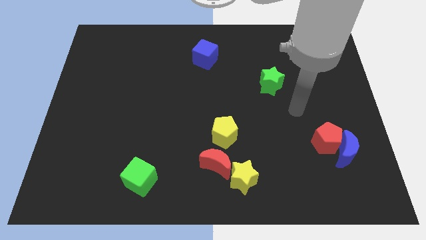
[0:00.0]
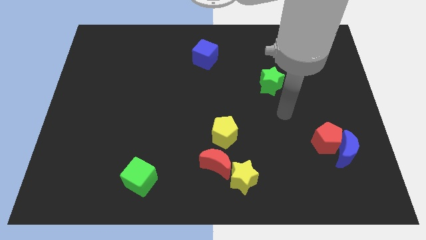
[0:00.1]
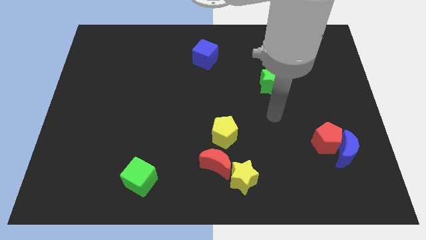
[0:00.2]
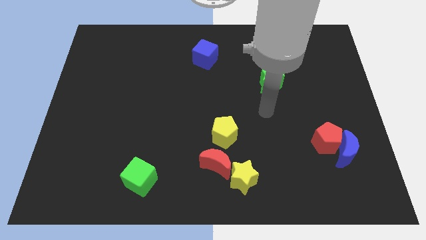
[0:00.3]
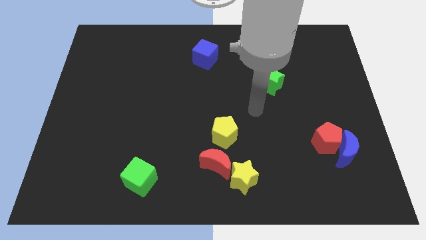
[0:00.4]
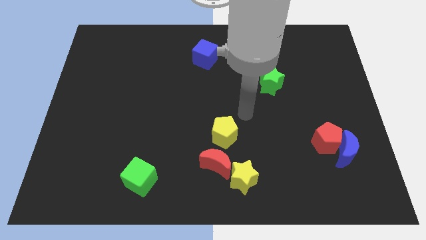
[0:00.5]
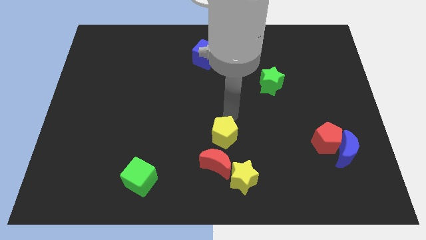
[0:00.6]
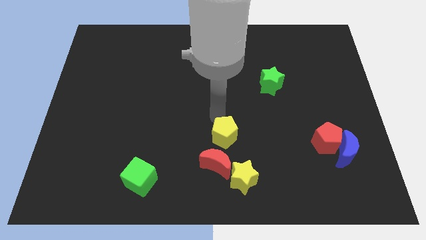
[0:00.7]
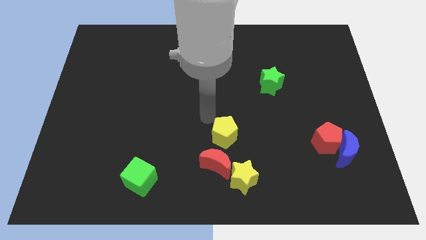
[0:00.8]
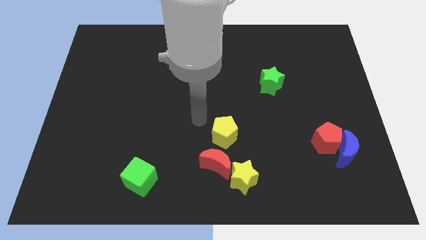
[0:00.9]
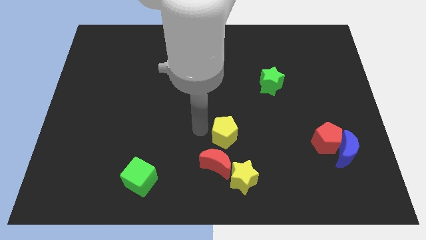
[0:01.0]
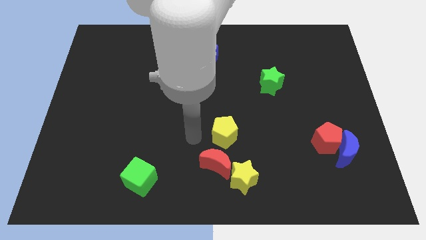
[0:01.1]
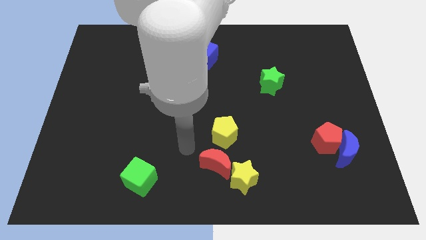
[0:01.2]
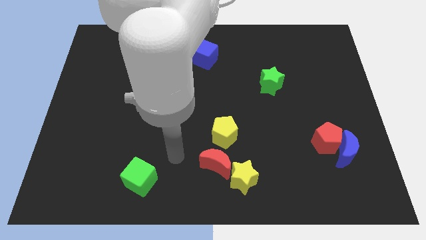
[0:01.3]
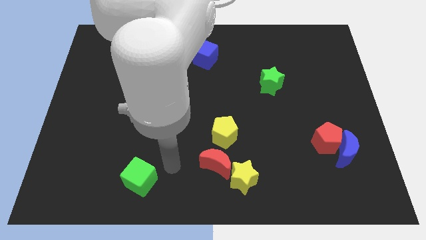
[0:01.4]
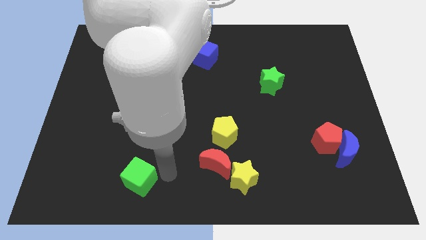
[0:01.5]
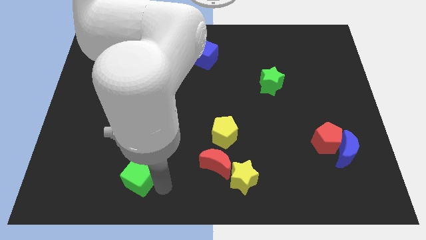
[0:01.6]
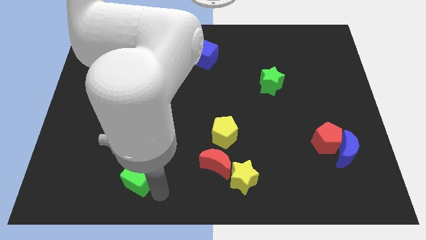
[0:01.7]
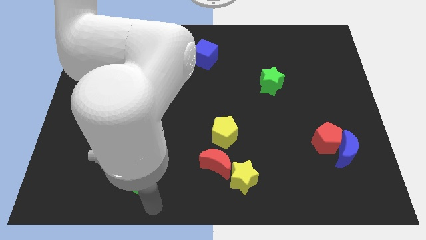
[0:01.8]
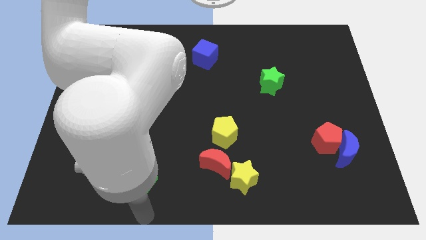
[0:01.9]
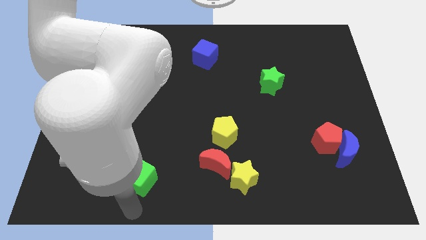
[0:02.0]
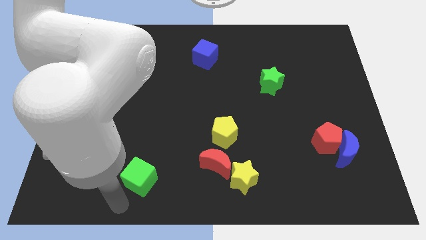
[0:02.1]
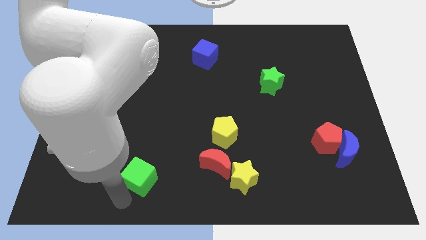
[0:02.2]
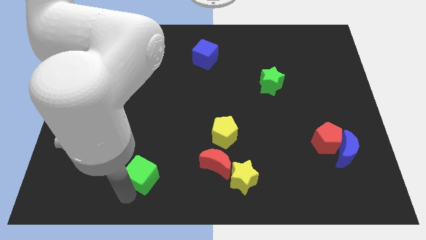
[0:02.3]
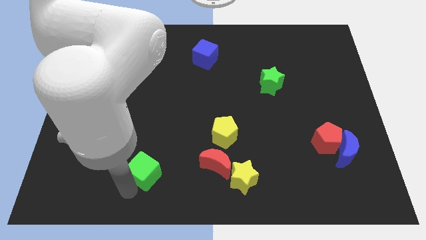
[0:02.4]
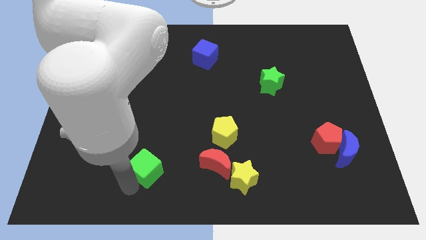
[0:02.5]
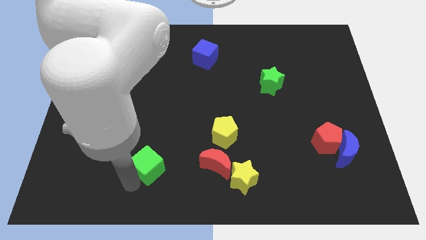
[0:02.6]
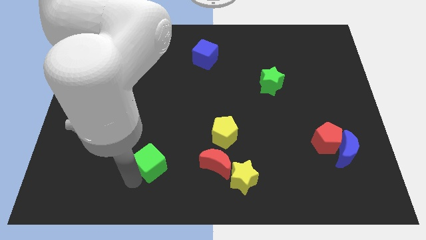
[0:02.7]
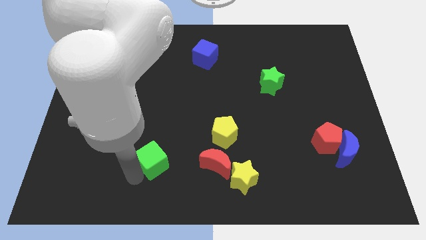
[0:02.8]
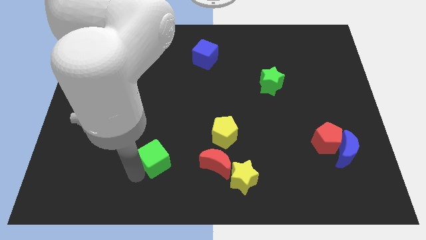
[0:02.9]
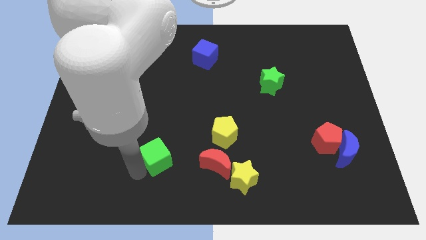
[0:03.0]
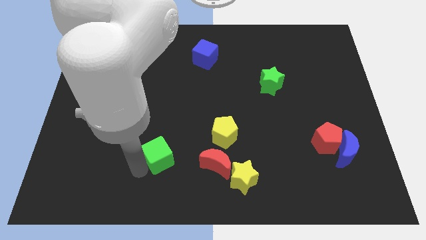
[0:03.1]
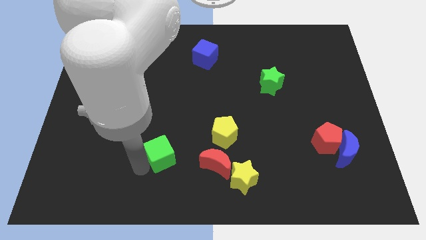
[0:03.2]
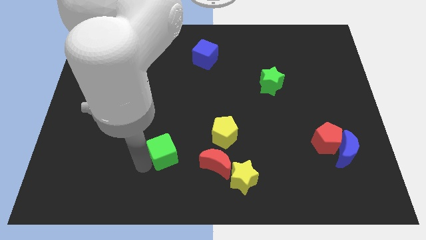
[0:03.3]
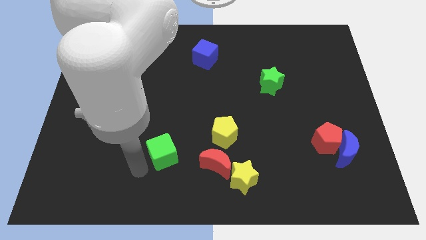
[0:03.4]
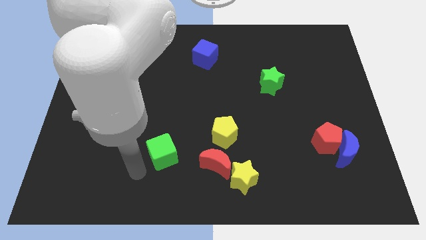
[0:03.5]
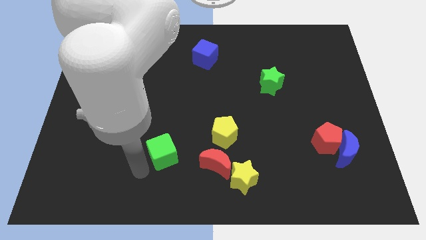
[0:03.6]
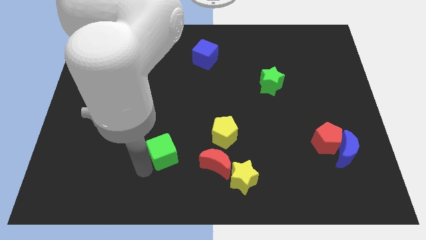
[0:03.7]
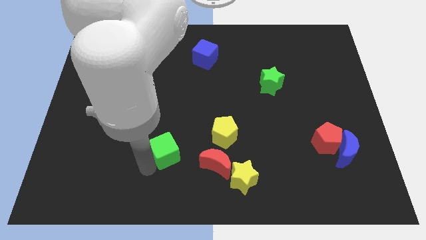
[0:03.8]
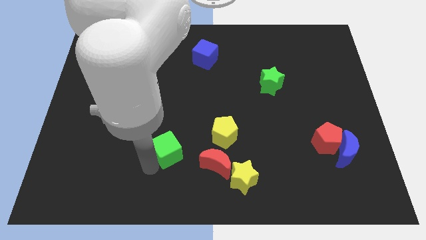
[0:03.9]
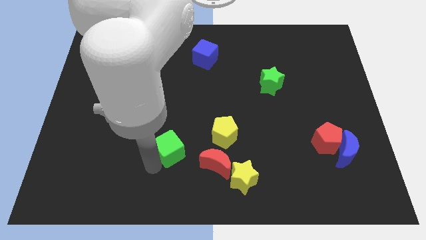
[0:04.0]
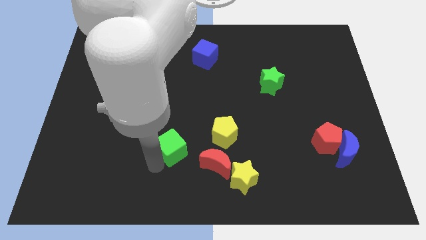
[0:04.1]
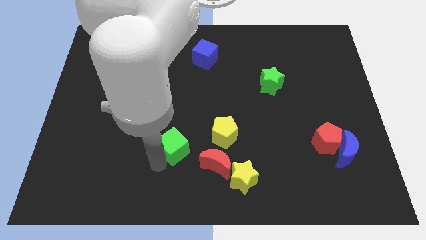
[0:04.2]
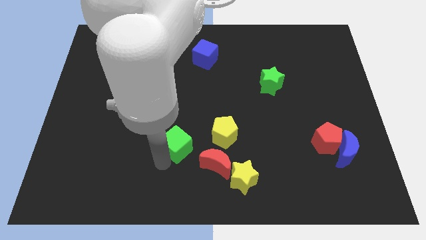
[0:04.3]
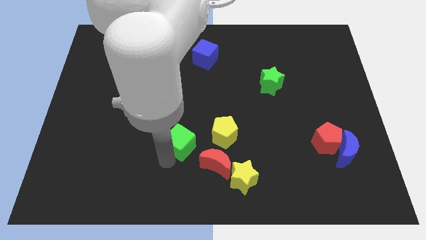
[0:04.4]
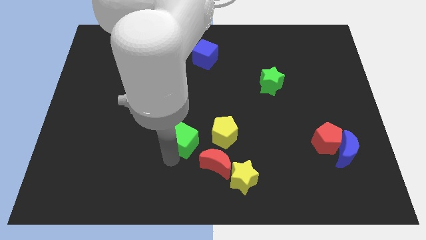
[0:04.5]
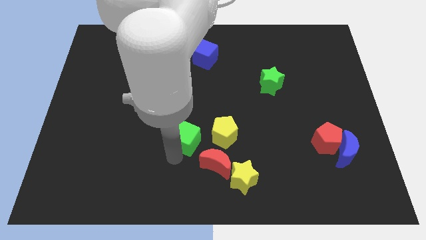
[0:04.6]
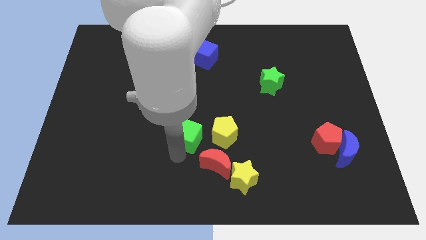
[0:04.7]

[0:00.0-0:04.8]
slide the green cube to the middle of the board

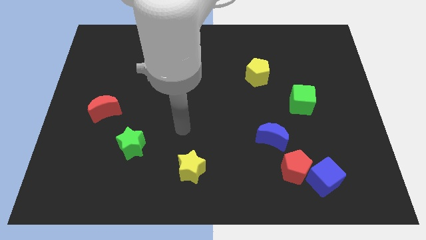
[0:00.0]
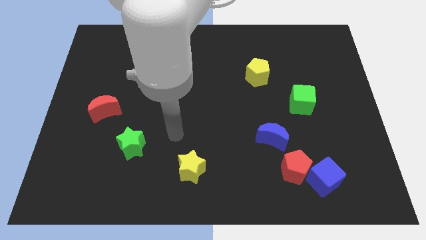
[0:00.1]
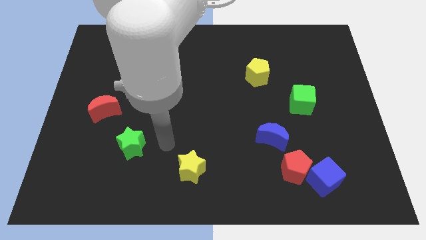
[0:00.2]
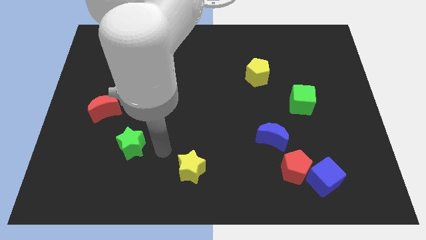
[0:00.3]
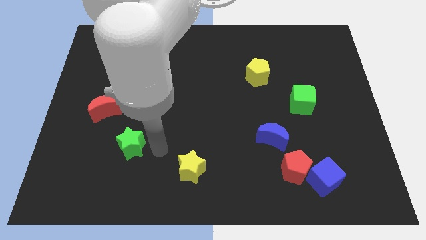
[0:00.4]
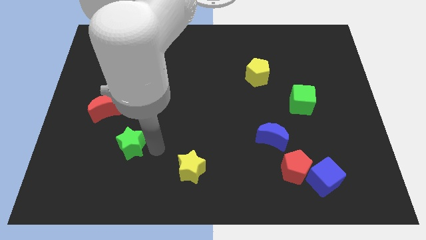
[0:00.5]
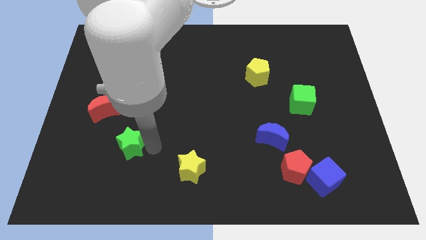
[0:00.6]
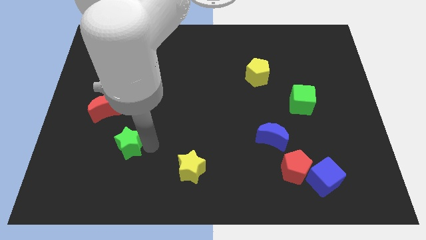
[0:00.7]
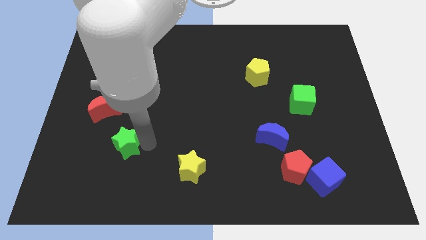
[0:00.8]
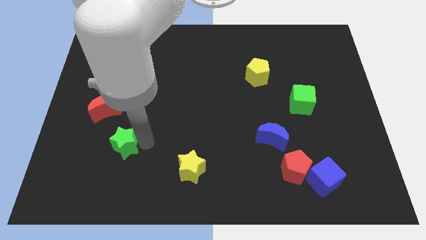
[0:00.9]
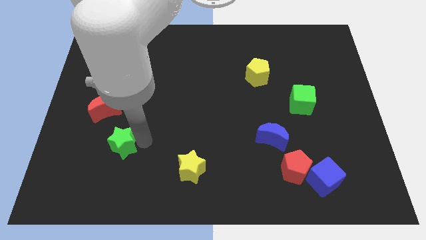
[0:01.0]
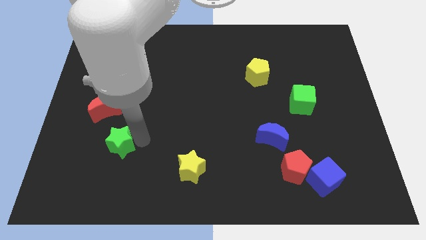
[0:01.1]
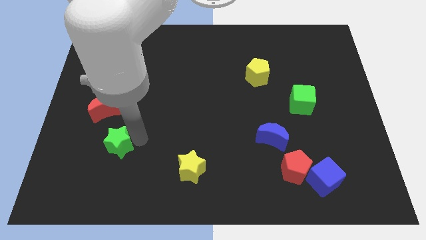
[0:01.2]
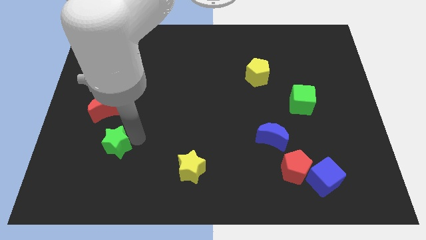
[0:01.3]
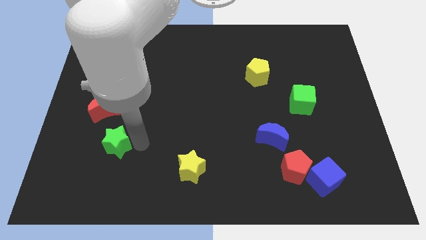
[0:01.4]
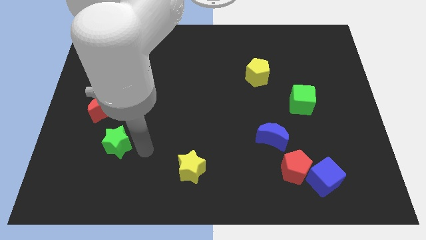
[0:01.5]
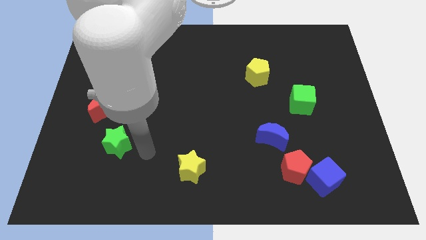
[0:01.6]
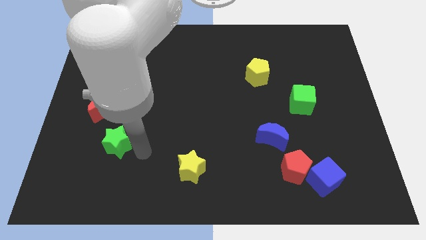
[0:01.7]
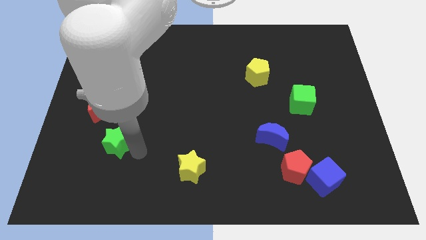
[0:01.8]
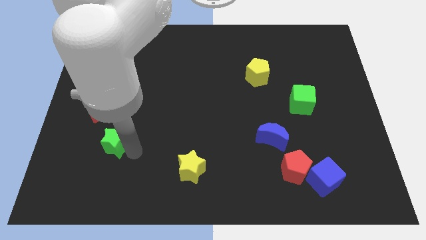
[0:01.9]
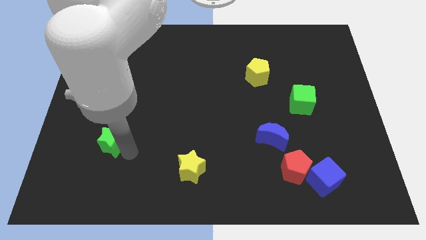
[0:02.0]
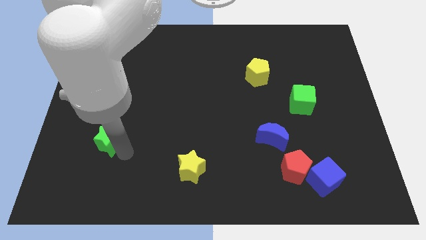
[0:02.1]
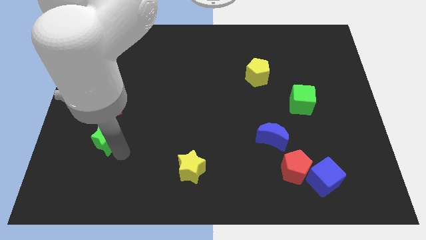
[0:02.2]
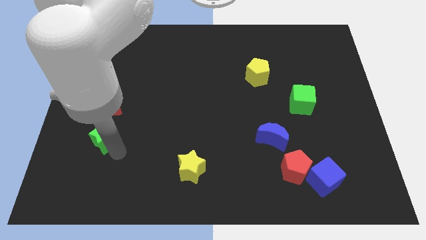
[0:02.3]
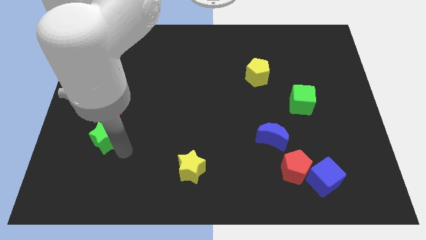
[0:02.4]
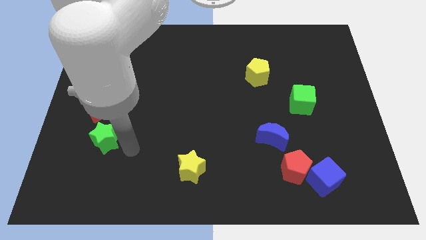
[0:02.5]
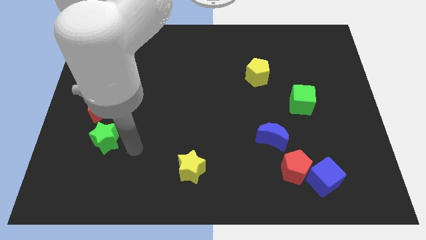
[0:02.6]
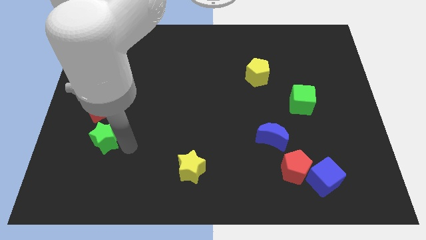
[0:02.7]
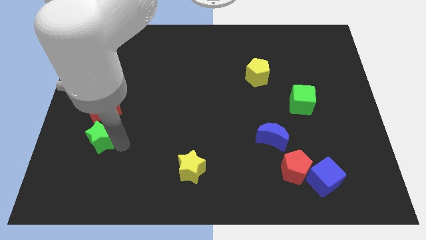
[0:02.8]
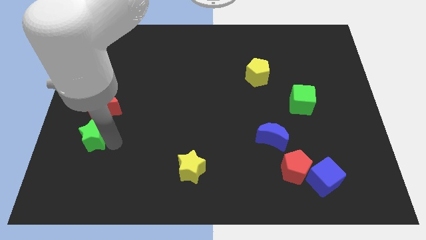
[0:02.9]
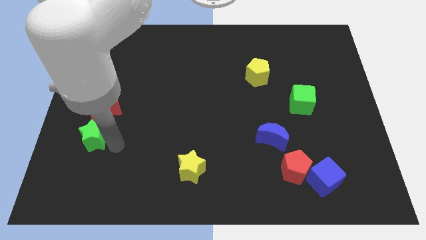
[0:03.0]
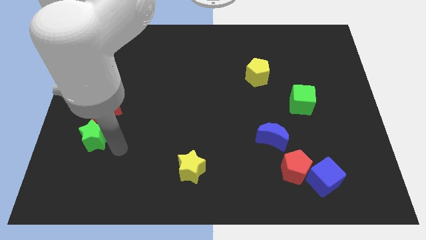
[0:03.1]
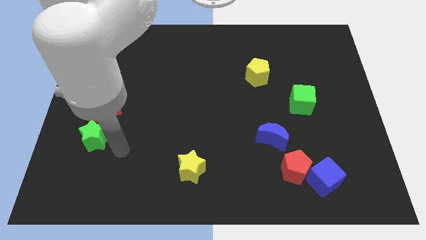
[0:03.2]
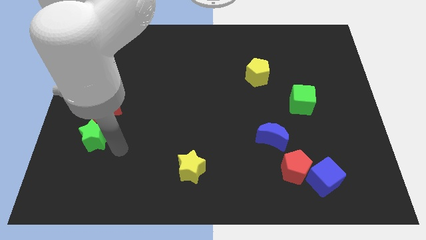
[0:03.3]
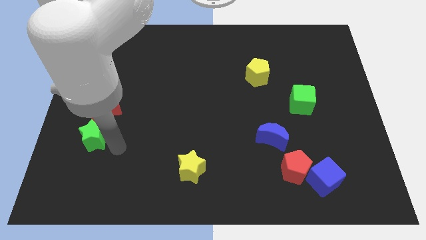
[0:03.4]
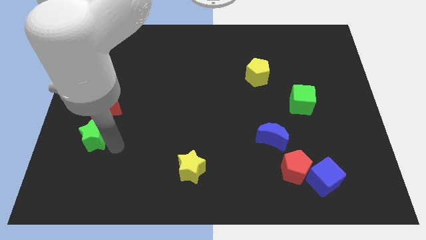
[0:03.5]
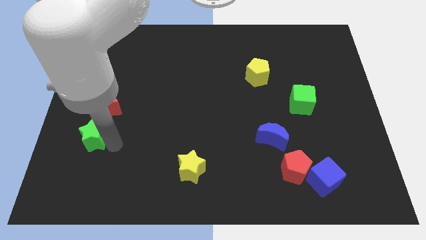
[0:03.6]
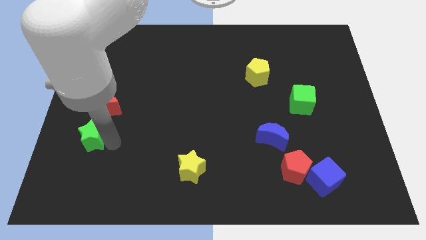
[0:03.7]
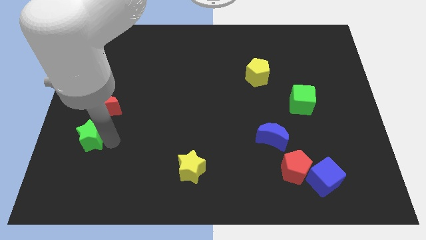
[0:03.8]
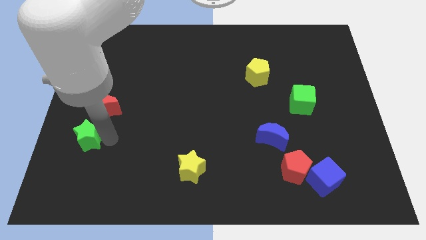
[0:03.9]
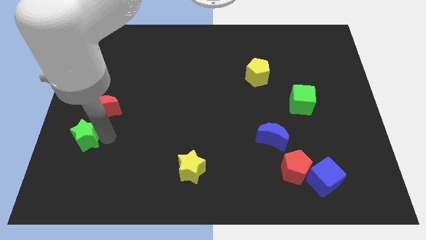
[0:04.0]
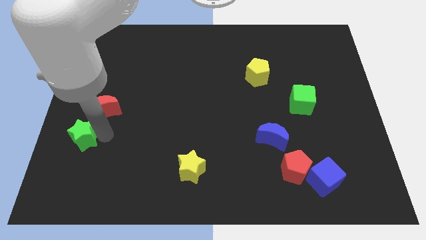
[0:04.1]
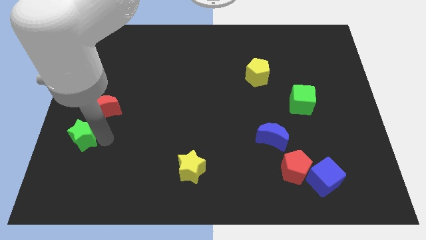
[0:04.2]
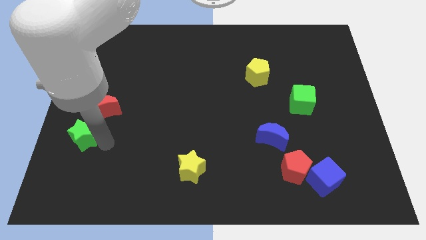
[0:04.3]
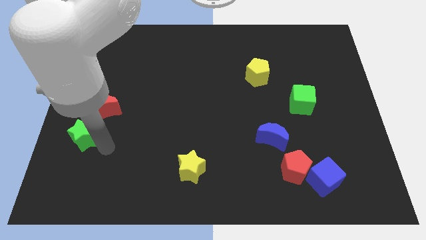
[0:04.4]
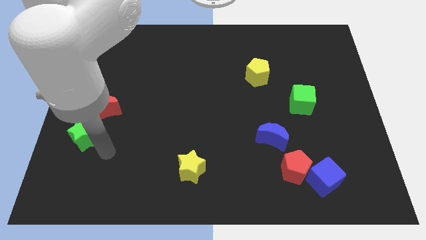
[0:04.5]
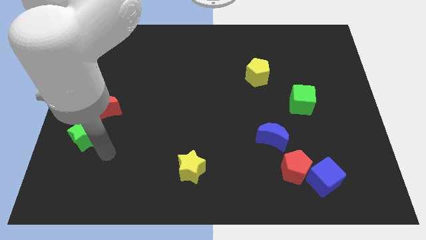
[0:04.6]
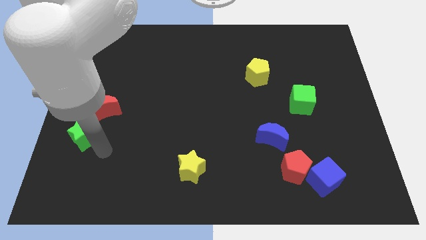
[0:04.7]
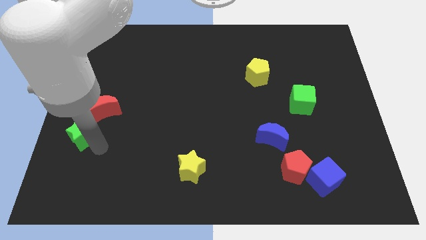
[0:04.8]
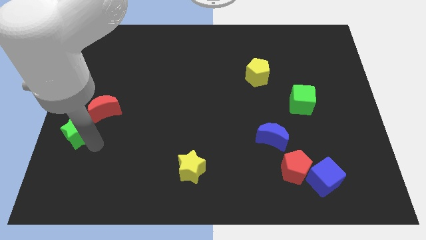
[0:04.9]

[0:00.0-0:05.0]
slide the green star to the left side of the board
